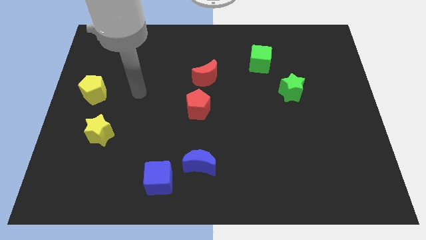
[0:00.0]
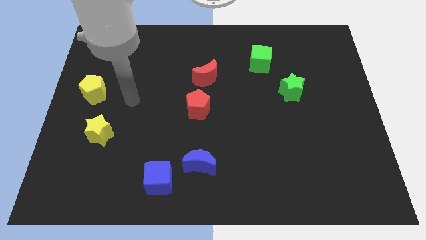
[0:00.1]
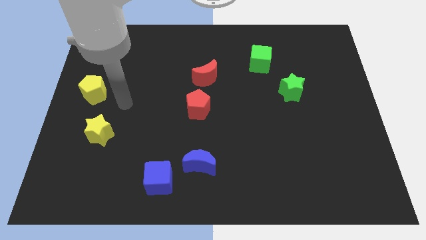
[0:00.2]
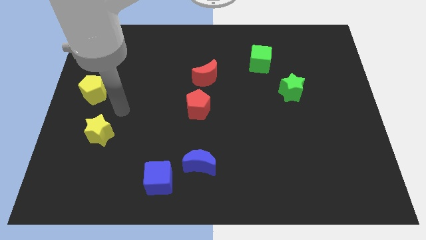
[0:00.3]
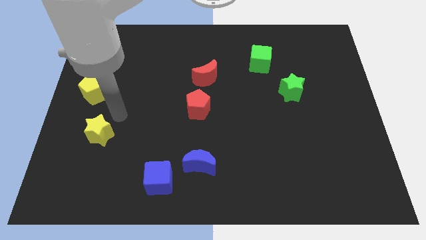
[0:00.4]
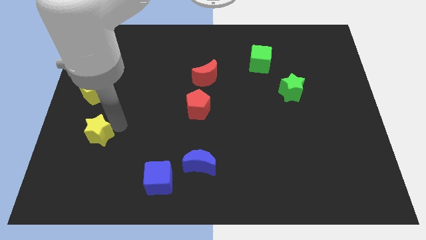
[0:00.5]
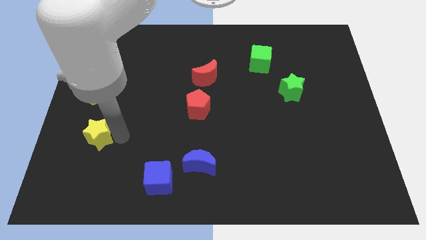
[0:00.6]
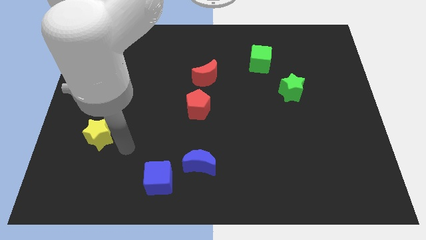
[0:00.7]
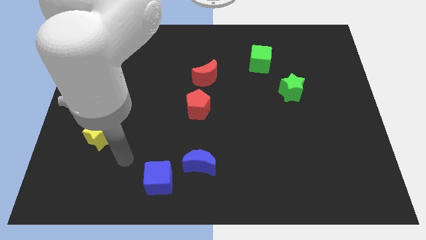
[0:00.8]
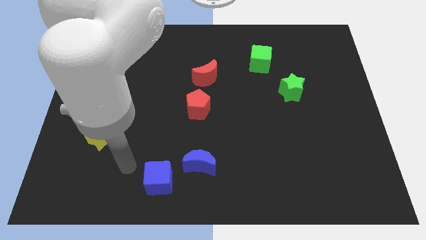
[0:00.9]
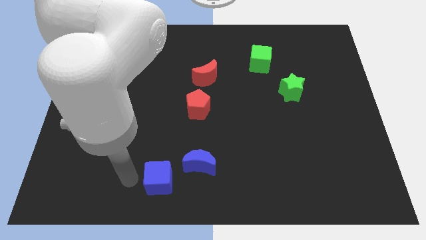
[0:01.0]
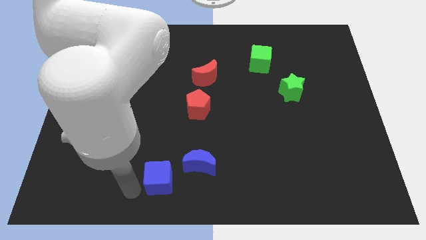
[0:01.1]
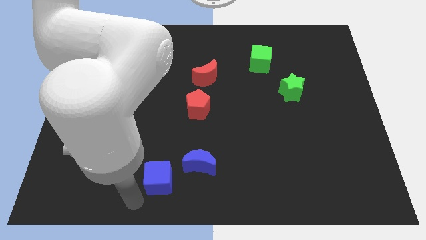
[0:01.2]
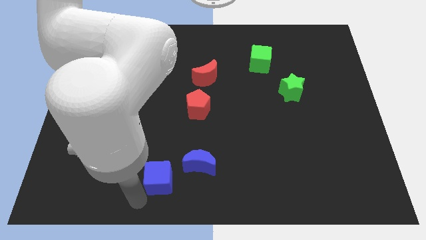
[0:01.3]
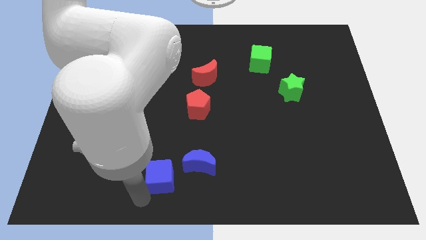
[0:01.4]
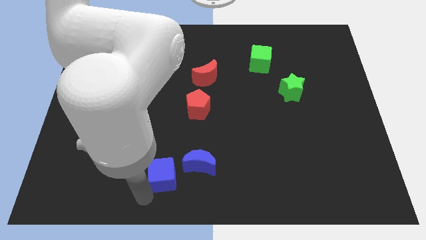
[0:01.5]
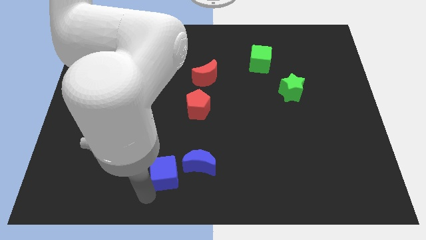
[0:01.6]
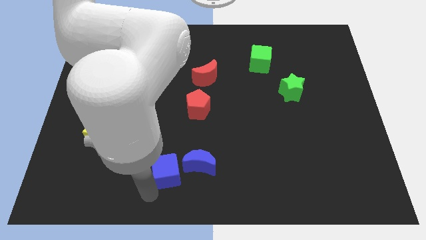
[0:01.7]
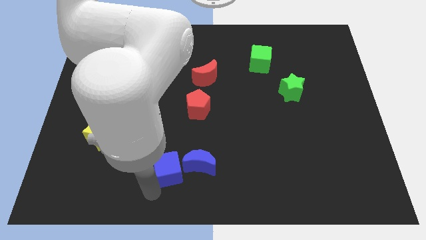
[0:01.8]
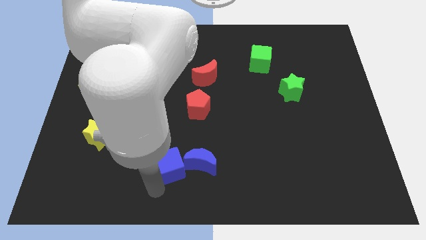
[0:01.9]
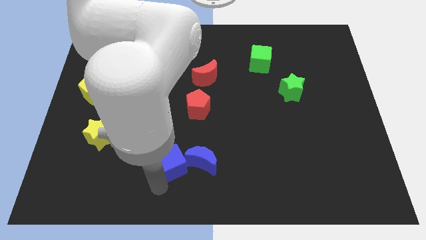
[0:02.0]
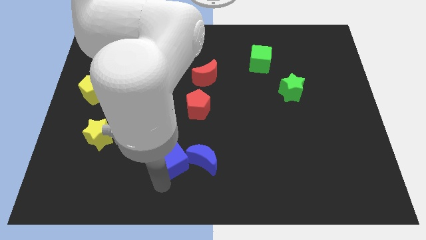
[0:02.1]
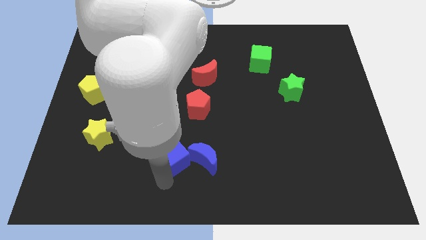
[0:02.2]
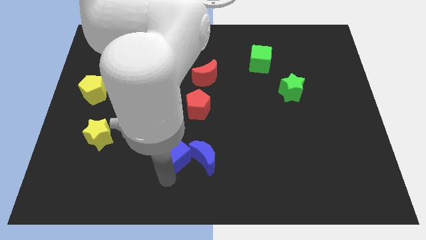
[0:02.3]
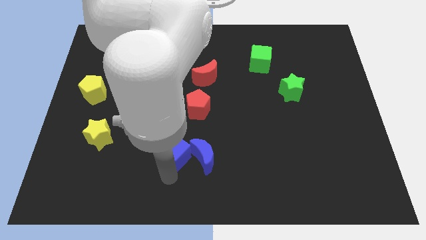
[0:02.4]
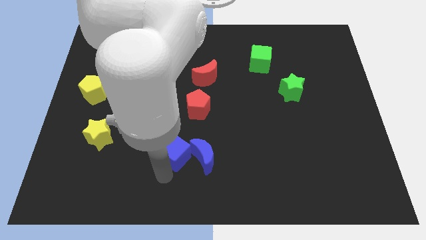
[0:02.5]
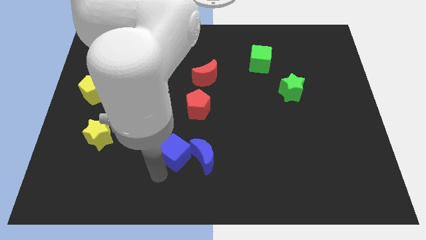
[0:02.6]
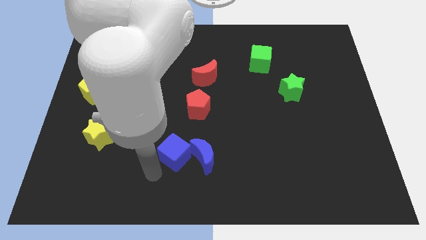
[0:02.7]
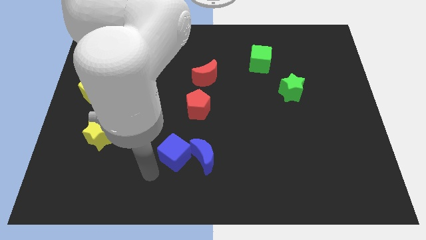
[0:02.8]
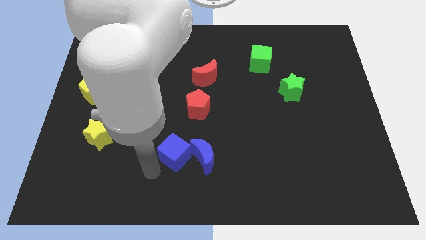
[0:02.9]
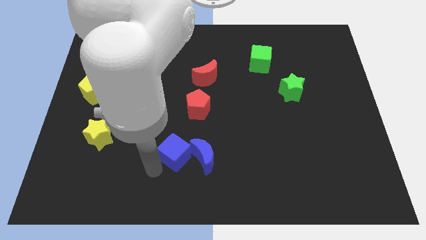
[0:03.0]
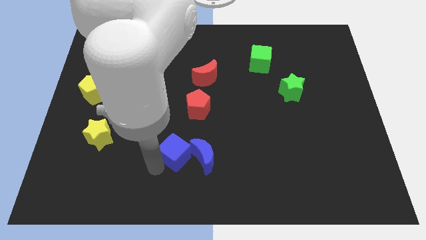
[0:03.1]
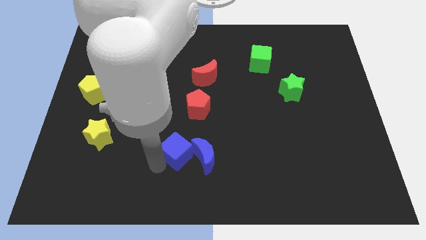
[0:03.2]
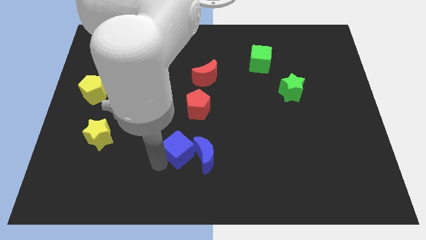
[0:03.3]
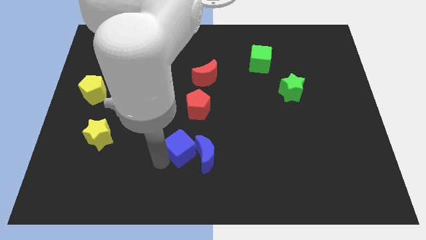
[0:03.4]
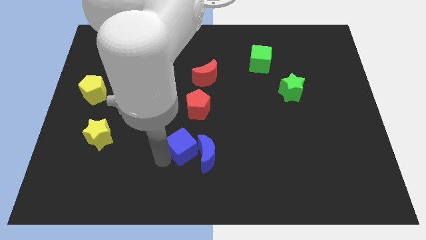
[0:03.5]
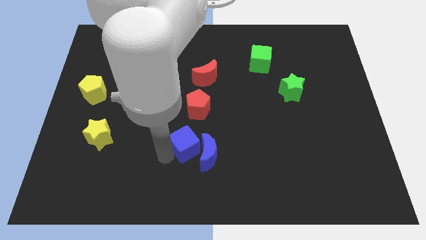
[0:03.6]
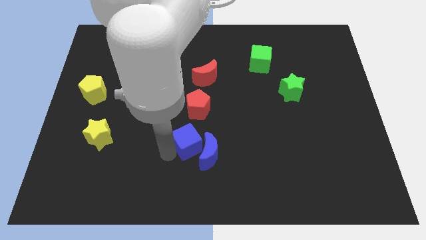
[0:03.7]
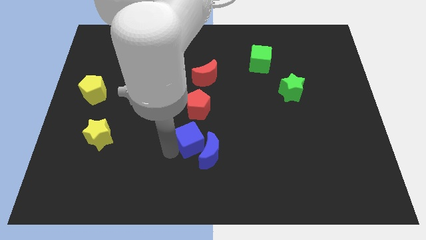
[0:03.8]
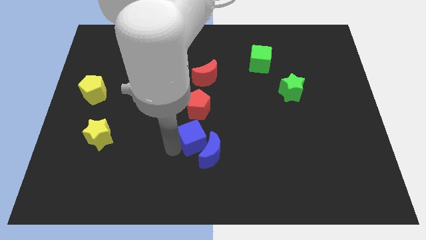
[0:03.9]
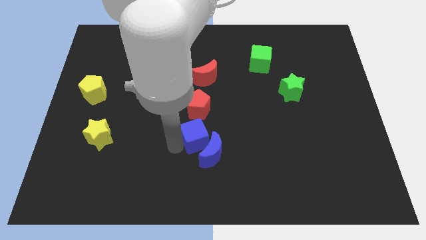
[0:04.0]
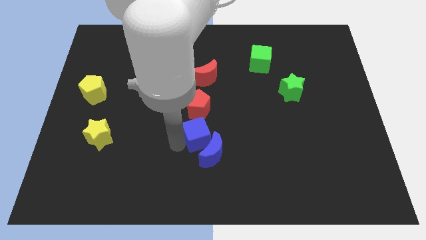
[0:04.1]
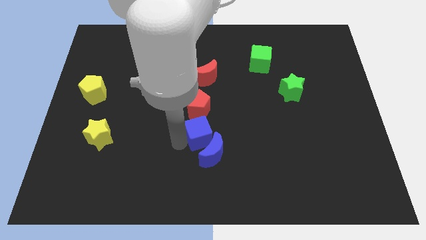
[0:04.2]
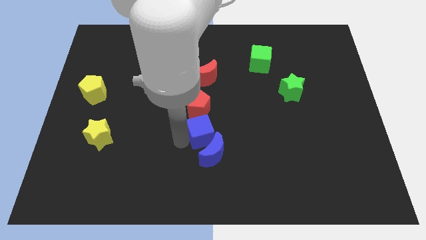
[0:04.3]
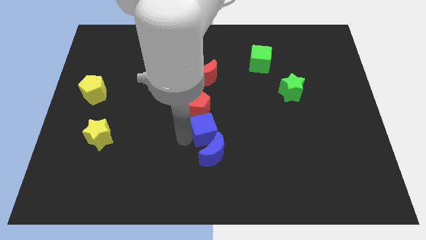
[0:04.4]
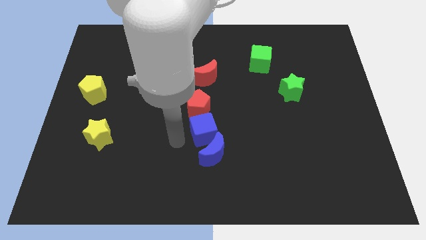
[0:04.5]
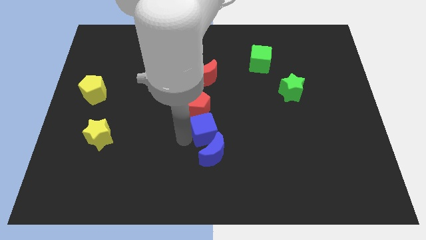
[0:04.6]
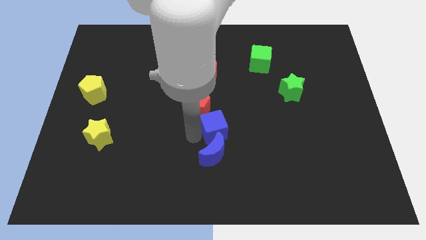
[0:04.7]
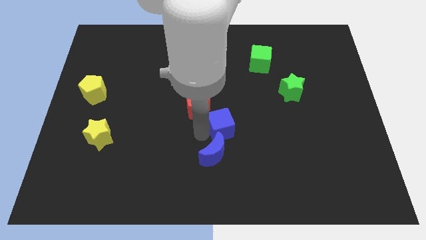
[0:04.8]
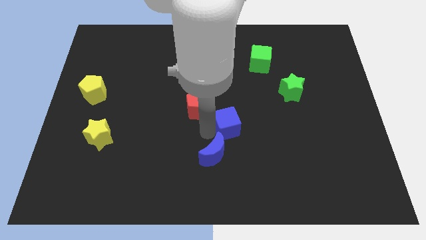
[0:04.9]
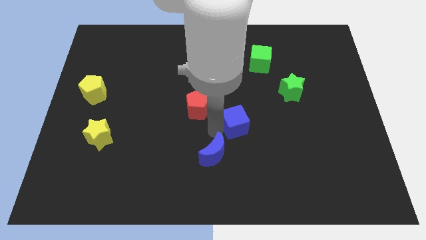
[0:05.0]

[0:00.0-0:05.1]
push the blue cube upwards and to the right diagonally

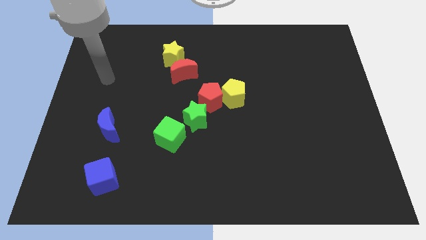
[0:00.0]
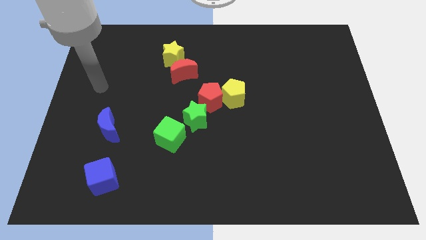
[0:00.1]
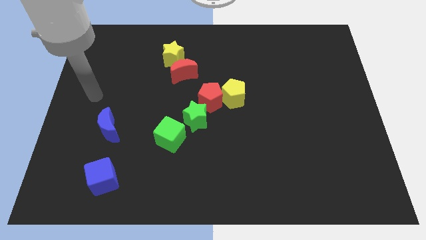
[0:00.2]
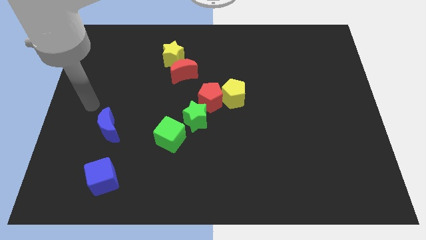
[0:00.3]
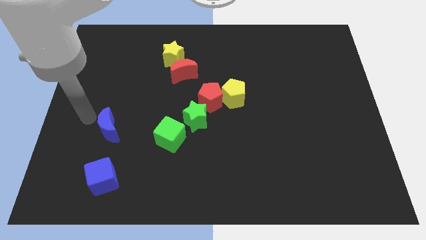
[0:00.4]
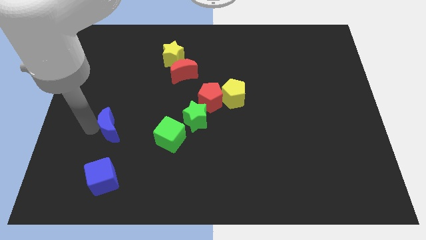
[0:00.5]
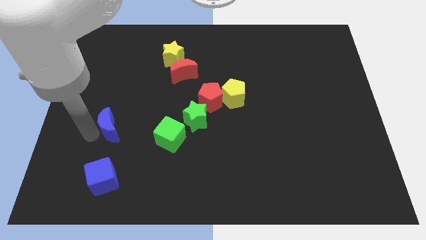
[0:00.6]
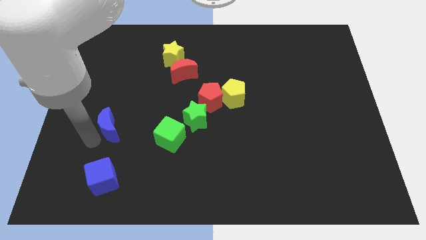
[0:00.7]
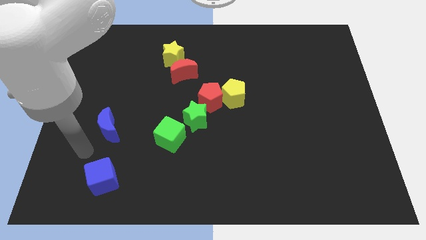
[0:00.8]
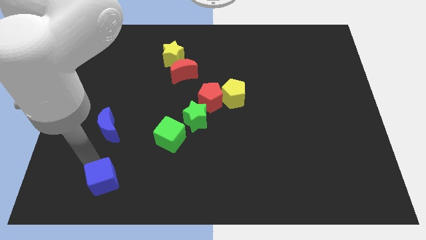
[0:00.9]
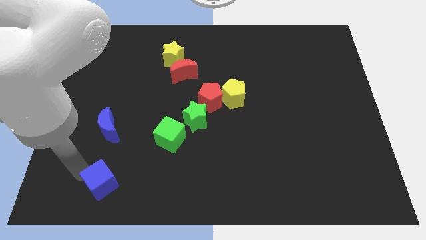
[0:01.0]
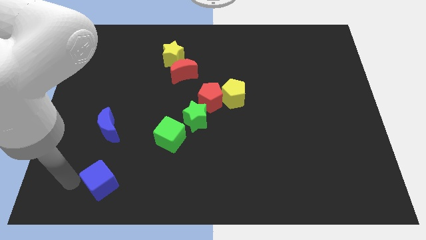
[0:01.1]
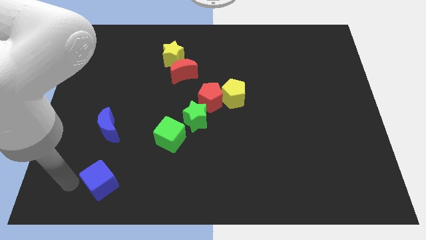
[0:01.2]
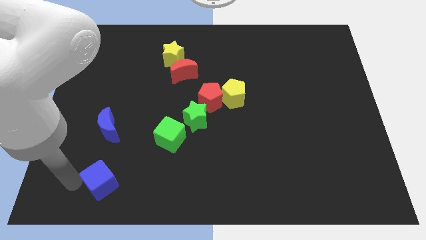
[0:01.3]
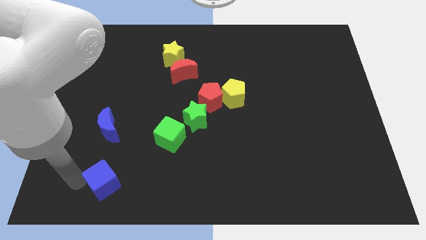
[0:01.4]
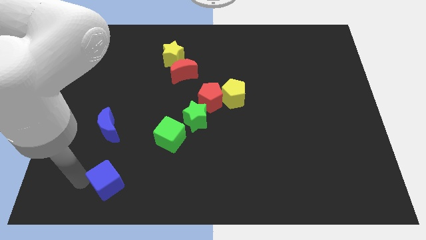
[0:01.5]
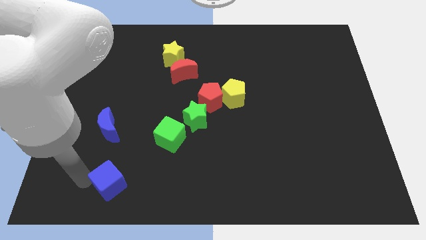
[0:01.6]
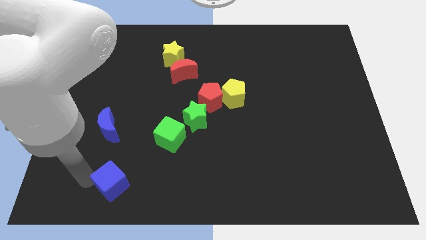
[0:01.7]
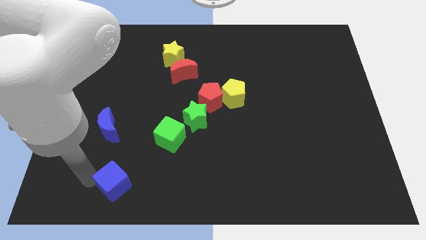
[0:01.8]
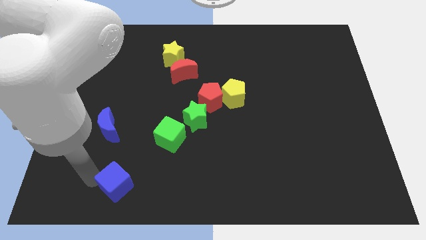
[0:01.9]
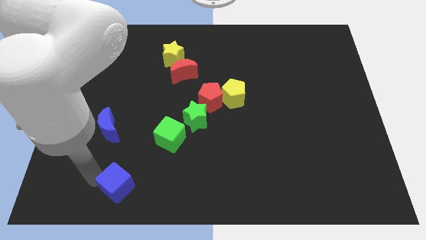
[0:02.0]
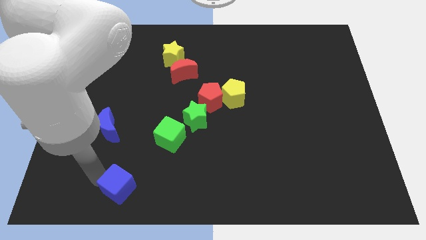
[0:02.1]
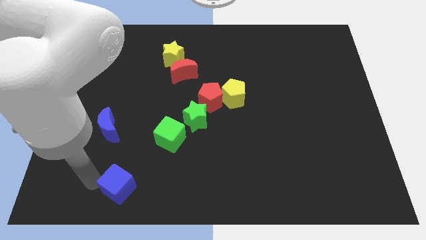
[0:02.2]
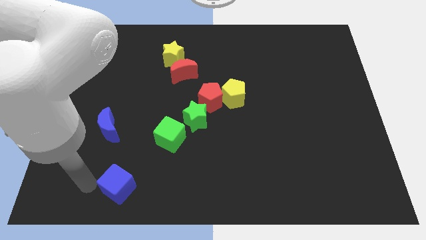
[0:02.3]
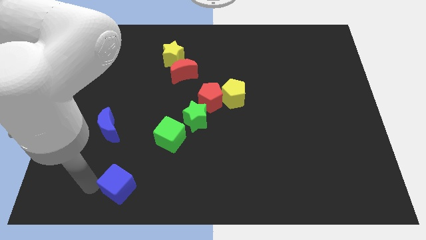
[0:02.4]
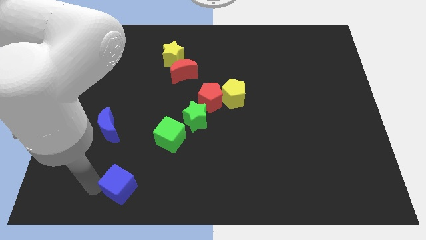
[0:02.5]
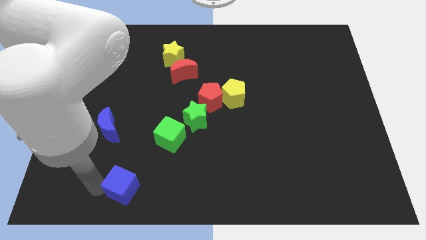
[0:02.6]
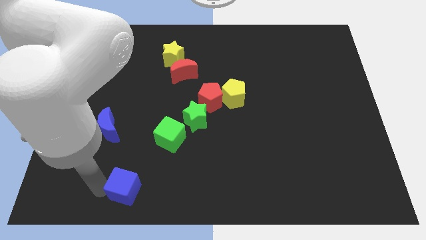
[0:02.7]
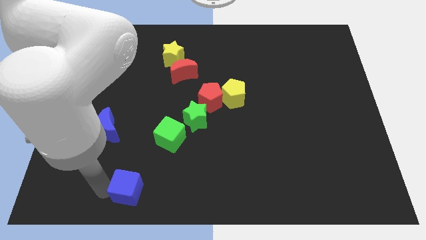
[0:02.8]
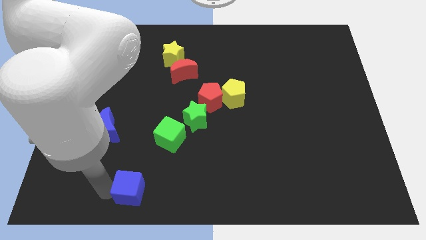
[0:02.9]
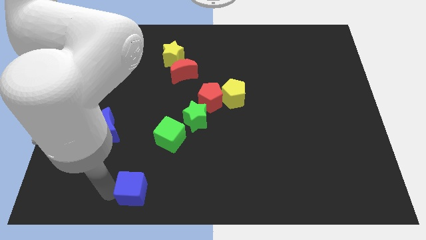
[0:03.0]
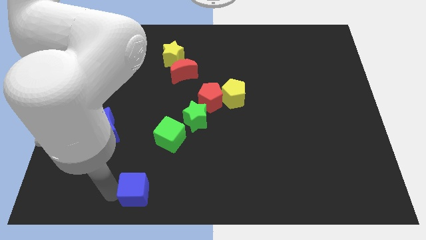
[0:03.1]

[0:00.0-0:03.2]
slide the blue cube a little to the right

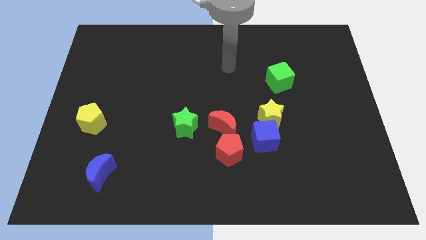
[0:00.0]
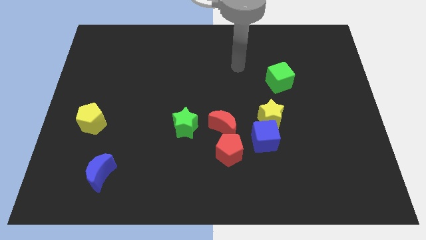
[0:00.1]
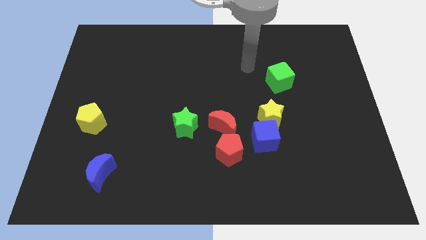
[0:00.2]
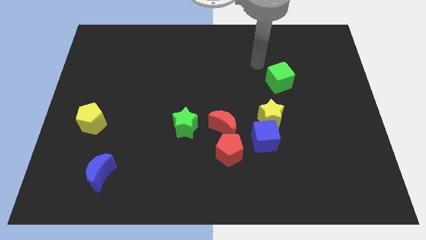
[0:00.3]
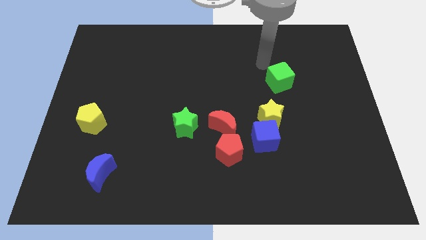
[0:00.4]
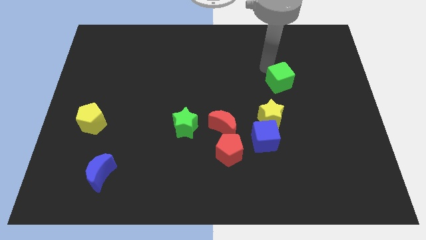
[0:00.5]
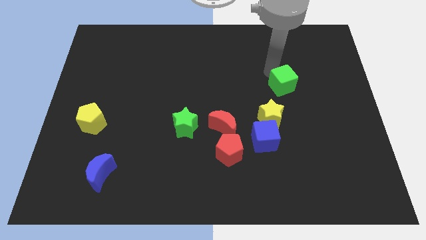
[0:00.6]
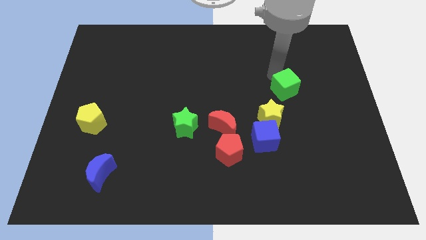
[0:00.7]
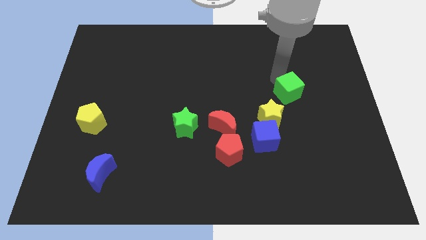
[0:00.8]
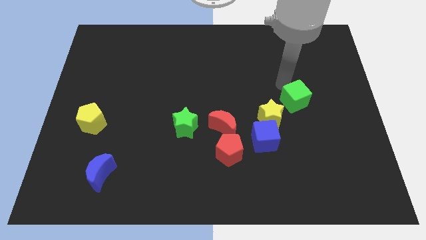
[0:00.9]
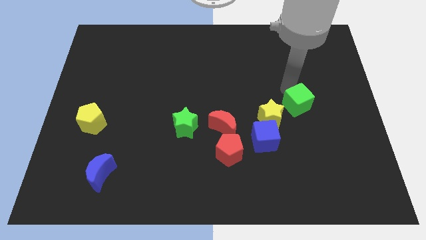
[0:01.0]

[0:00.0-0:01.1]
slide the green cube down a bit
